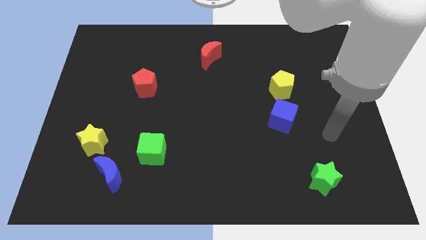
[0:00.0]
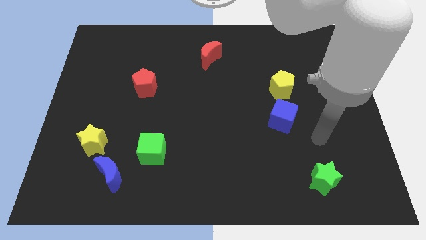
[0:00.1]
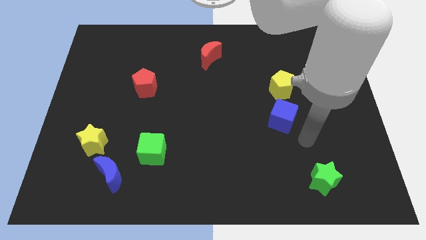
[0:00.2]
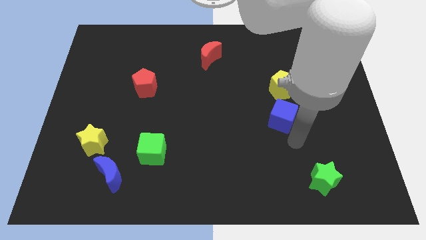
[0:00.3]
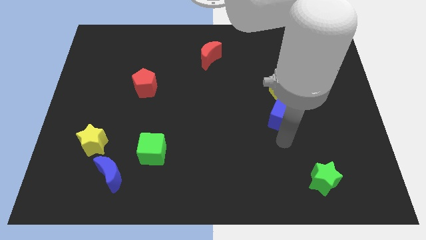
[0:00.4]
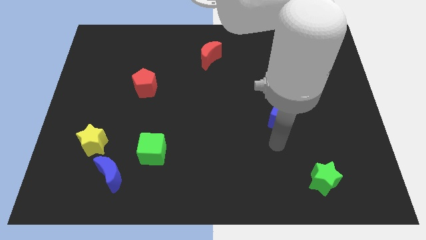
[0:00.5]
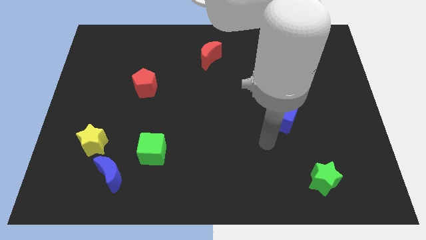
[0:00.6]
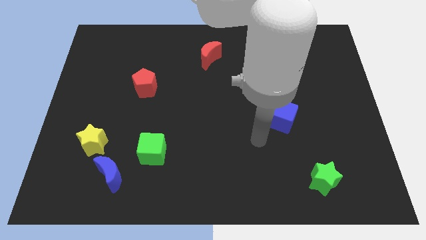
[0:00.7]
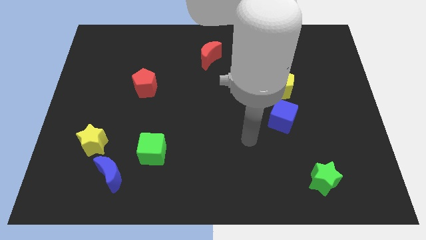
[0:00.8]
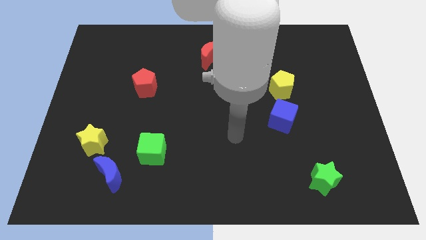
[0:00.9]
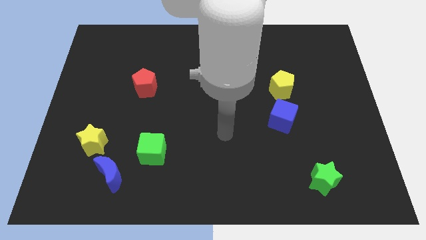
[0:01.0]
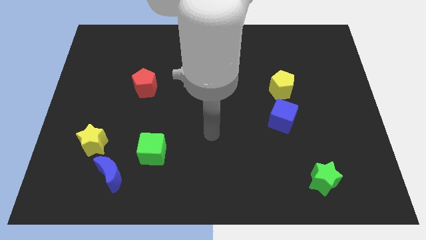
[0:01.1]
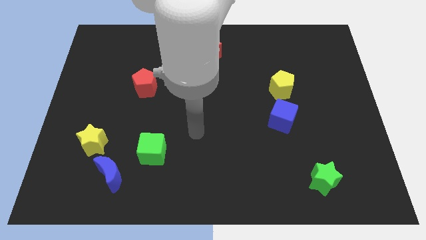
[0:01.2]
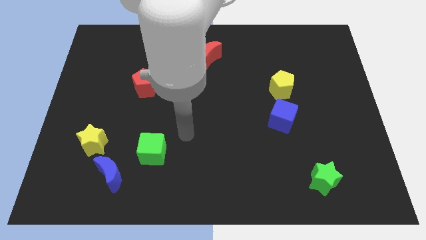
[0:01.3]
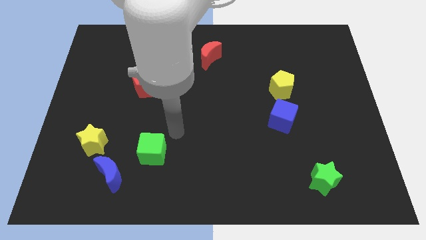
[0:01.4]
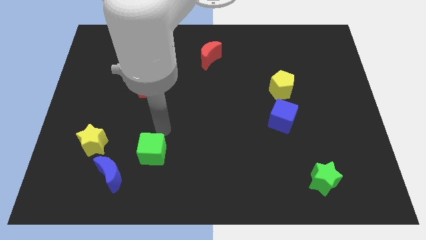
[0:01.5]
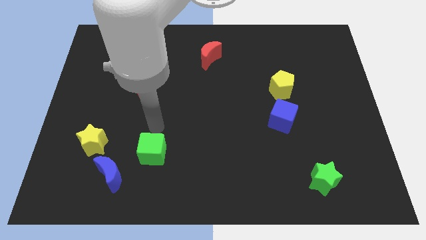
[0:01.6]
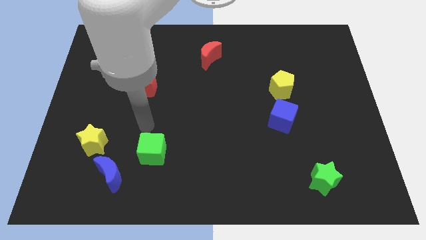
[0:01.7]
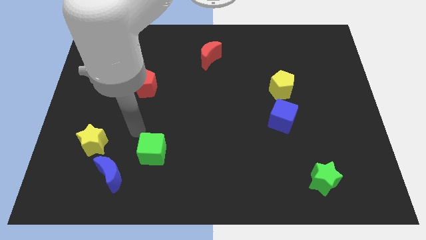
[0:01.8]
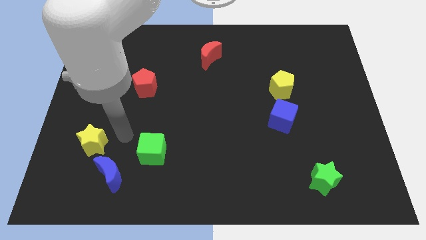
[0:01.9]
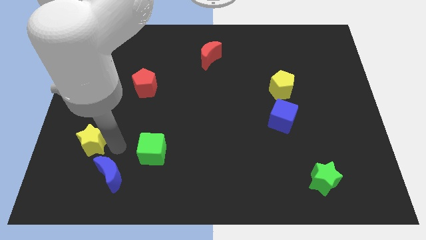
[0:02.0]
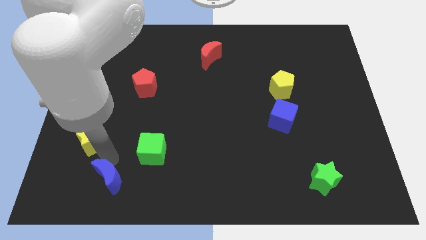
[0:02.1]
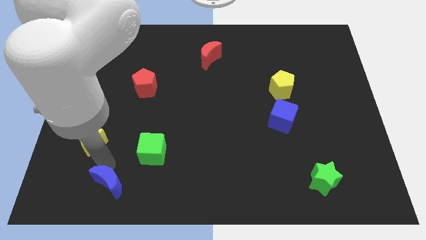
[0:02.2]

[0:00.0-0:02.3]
separate the yellow star from the blue moon

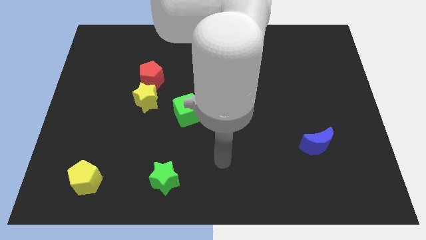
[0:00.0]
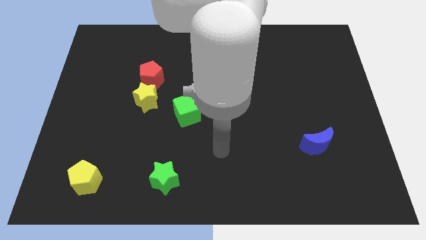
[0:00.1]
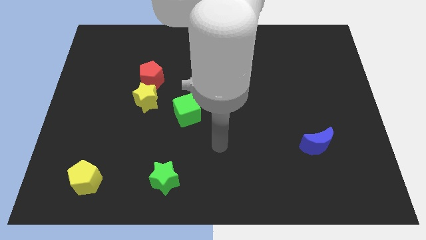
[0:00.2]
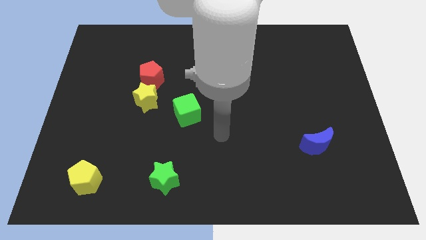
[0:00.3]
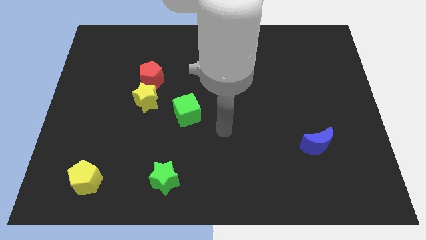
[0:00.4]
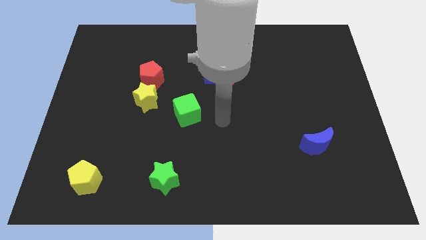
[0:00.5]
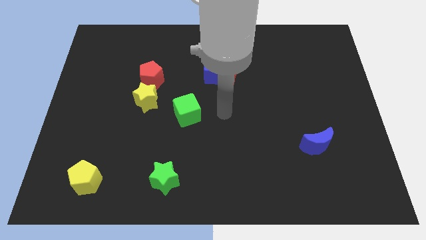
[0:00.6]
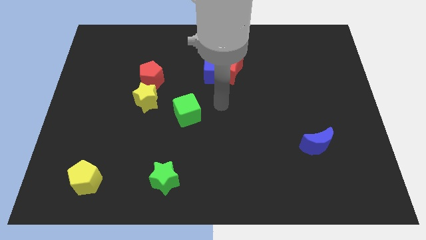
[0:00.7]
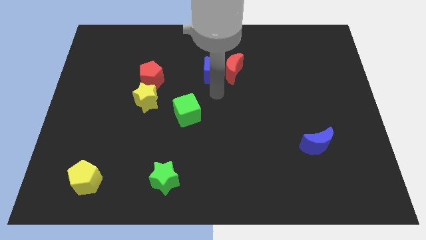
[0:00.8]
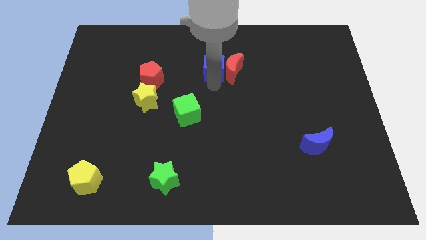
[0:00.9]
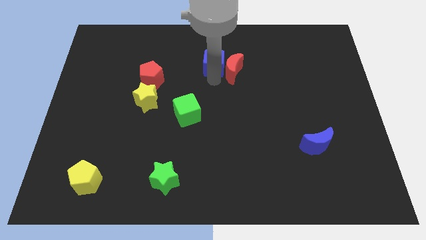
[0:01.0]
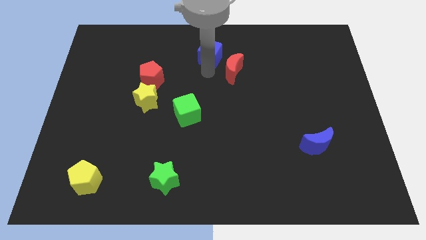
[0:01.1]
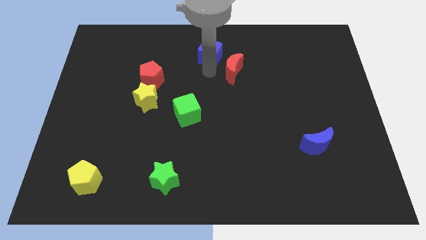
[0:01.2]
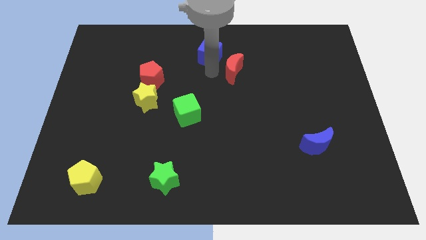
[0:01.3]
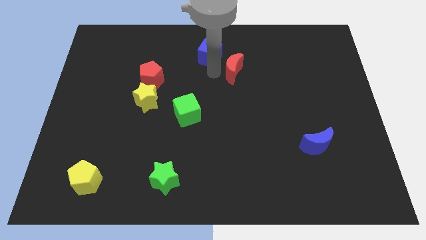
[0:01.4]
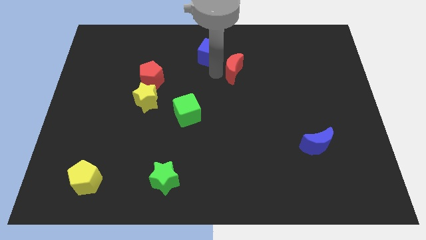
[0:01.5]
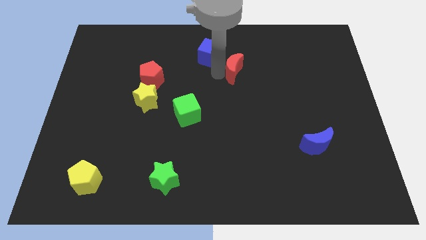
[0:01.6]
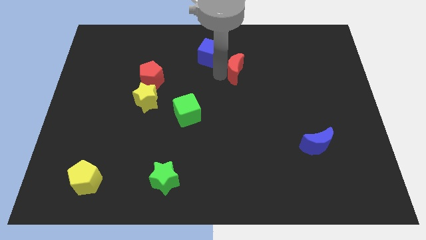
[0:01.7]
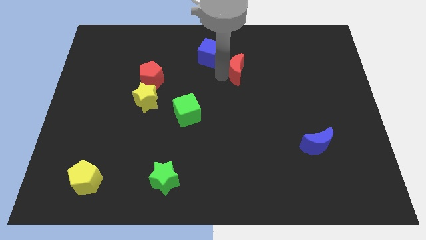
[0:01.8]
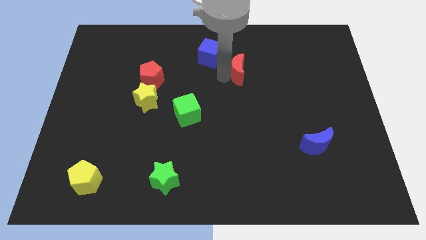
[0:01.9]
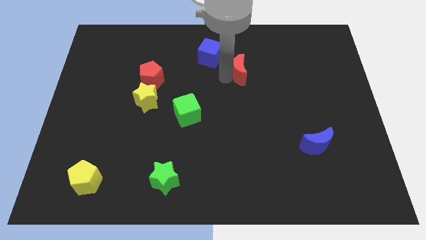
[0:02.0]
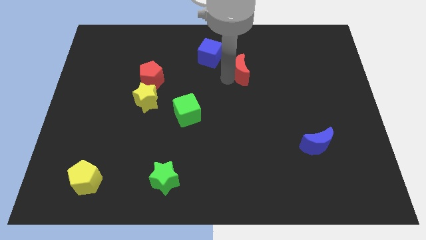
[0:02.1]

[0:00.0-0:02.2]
separate the red moon from the blue cube

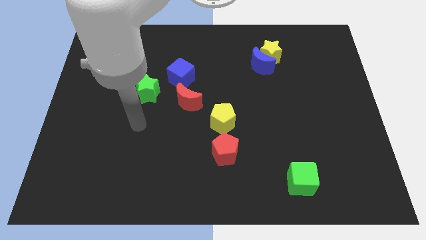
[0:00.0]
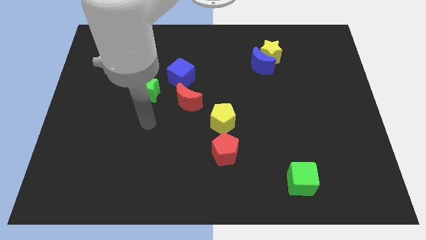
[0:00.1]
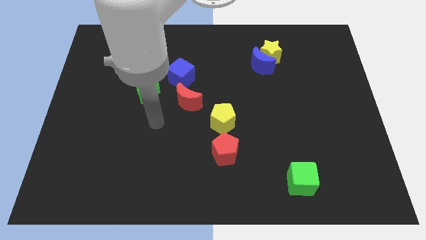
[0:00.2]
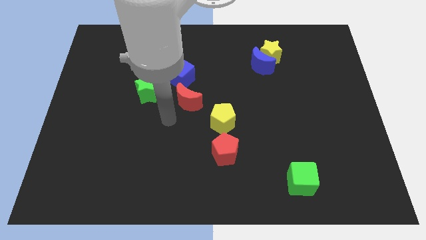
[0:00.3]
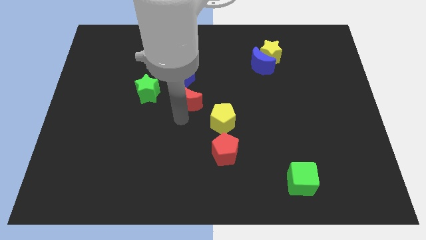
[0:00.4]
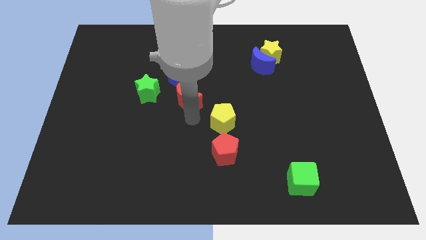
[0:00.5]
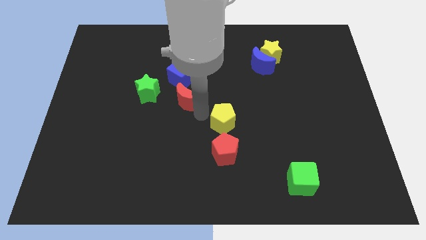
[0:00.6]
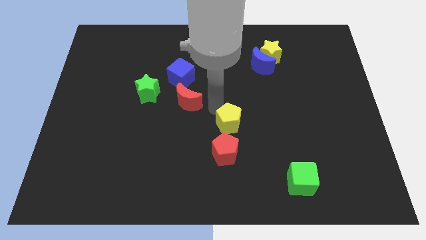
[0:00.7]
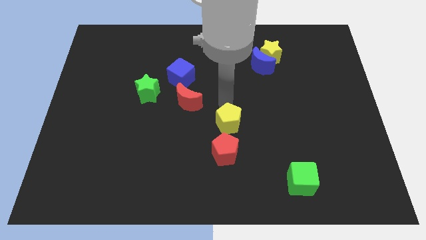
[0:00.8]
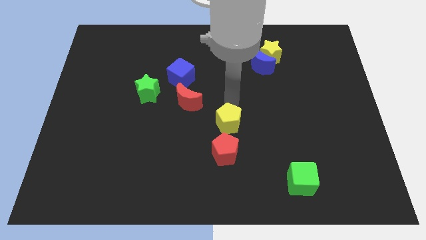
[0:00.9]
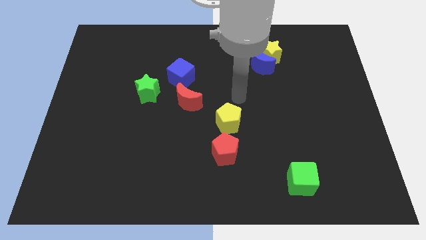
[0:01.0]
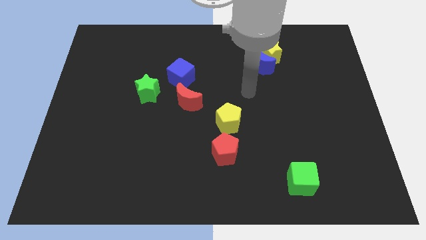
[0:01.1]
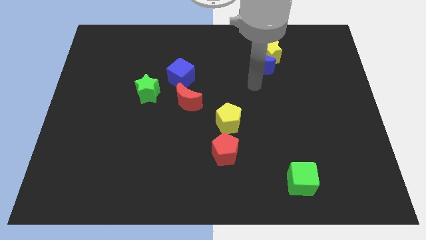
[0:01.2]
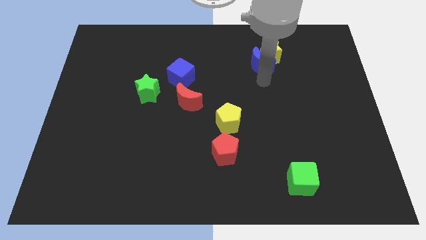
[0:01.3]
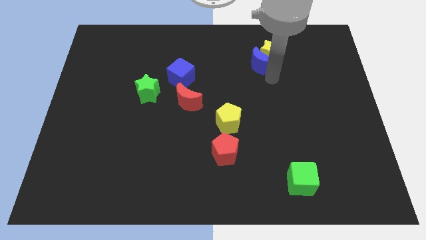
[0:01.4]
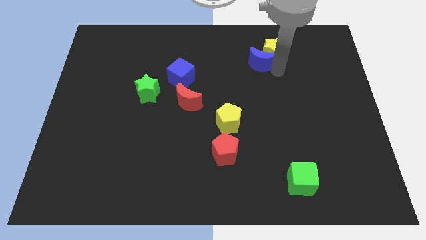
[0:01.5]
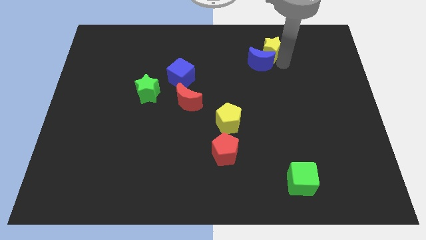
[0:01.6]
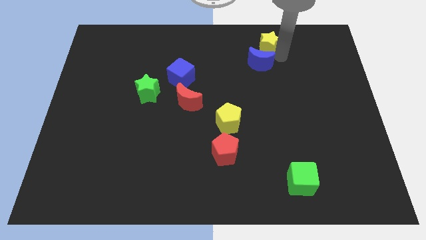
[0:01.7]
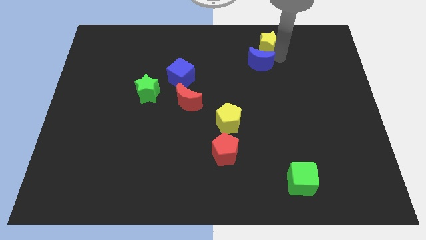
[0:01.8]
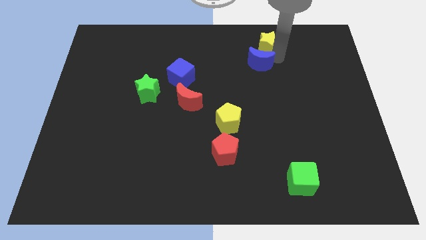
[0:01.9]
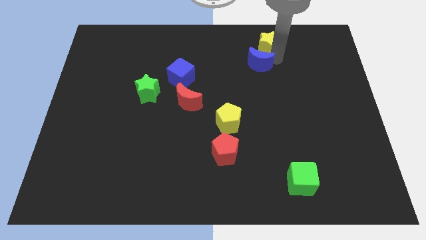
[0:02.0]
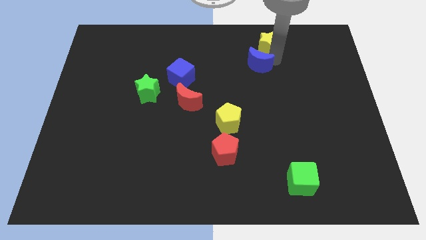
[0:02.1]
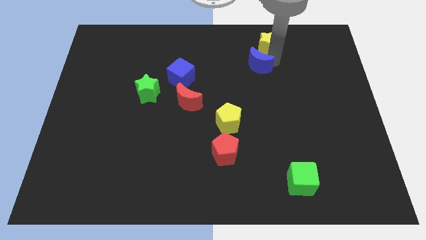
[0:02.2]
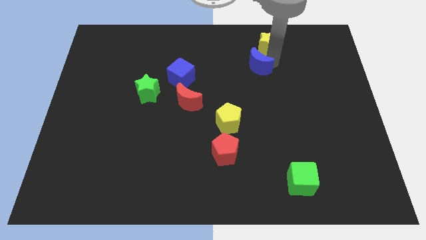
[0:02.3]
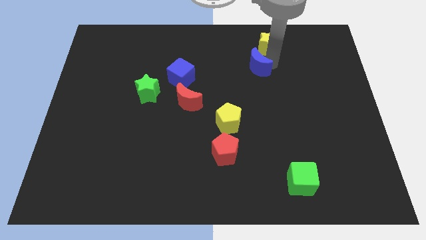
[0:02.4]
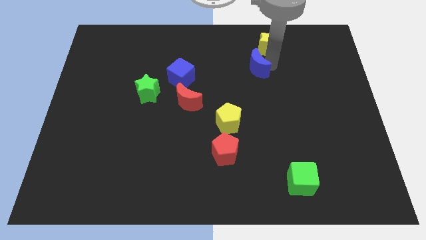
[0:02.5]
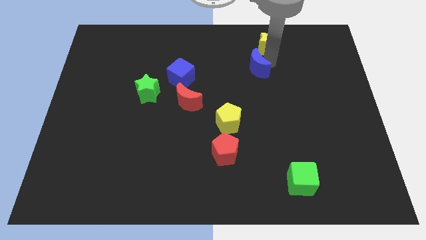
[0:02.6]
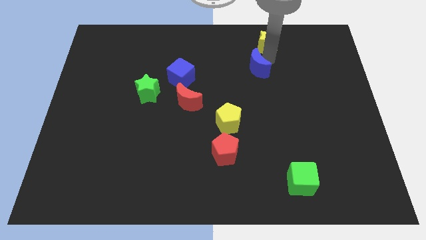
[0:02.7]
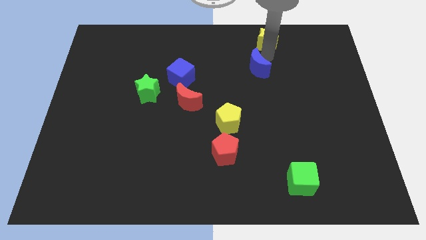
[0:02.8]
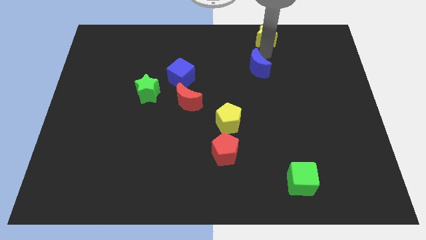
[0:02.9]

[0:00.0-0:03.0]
pull the blue moon apart from the yellow star

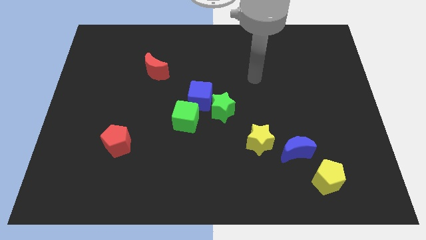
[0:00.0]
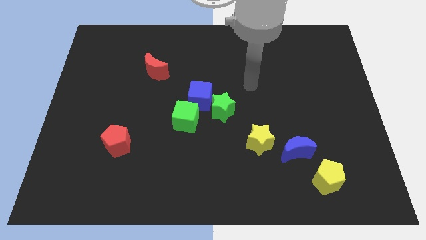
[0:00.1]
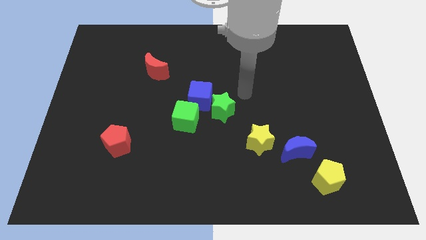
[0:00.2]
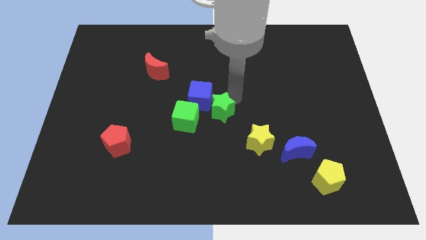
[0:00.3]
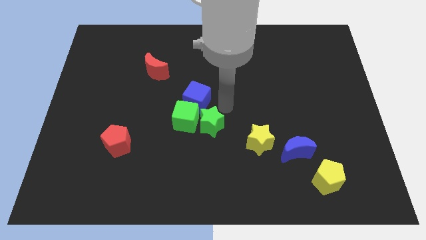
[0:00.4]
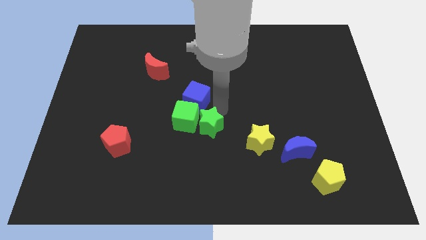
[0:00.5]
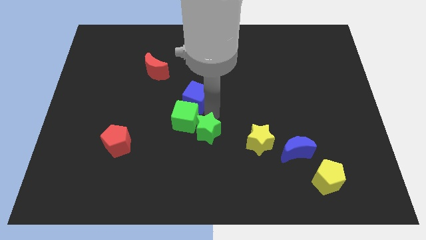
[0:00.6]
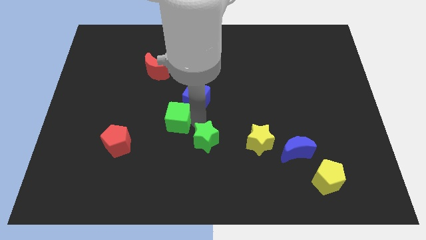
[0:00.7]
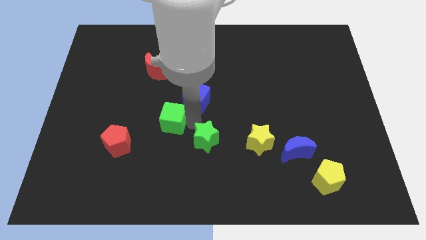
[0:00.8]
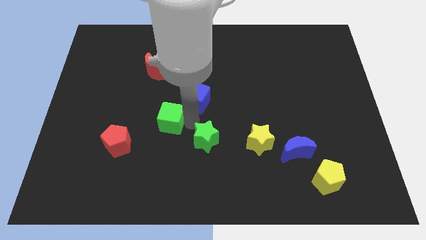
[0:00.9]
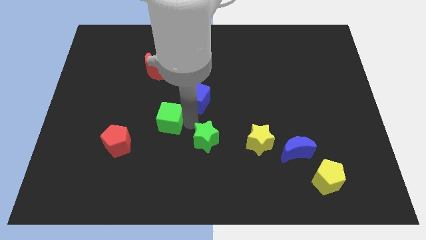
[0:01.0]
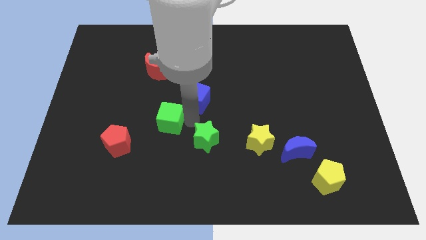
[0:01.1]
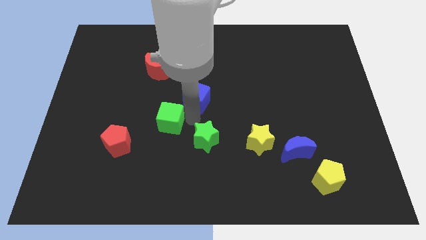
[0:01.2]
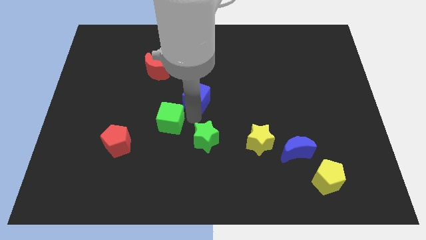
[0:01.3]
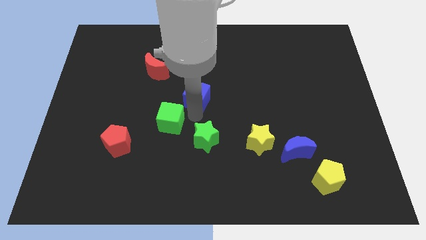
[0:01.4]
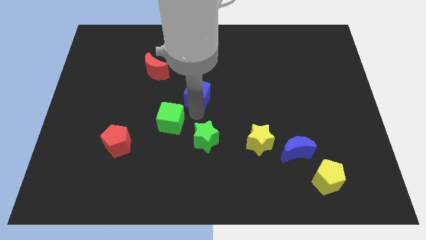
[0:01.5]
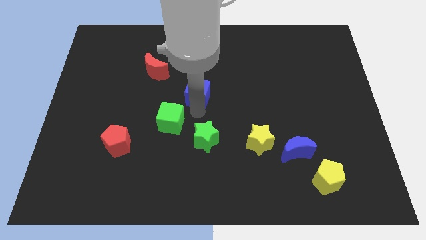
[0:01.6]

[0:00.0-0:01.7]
pull the blue cube apart from the green star and green cube

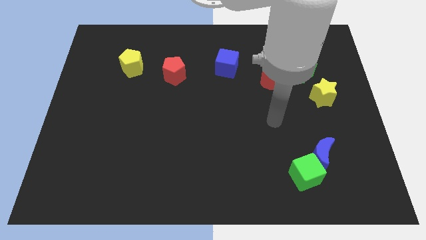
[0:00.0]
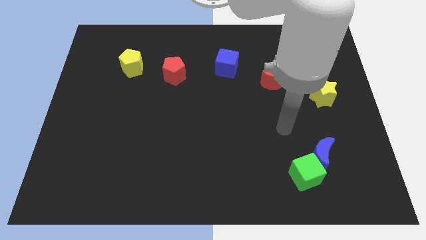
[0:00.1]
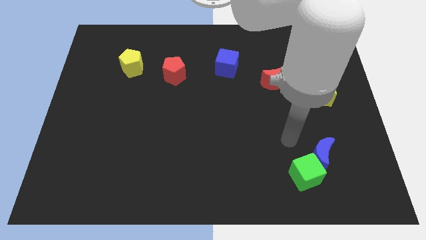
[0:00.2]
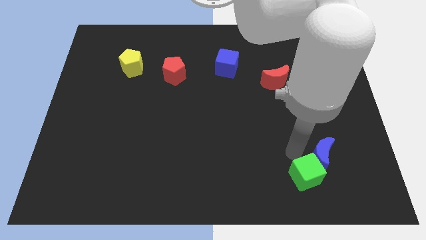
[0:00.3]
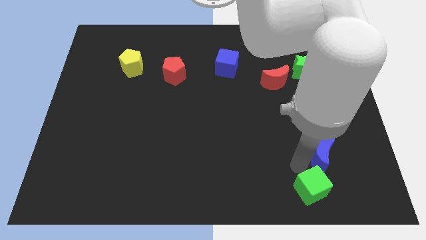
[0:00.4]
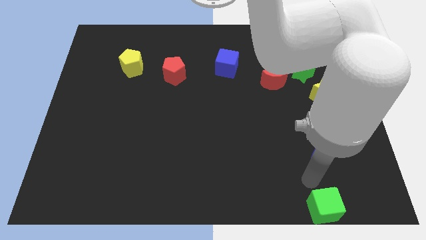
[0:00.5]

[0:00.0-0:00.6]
pull the blue moon apart from the green cube
